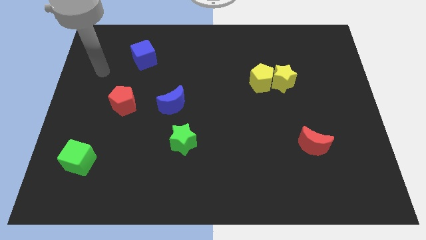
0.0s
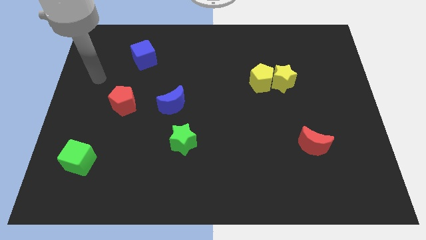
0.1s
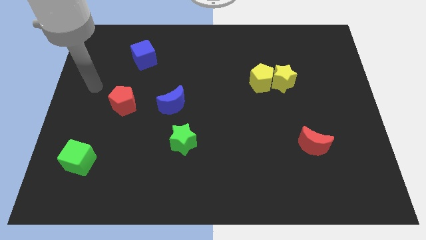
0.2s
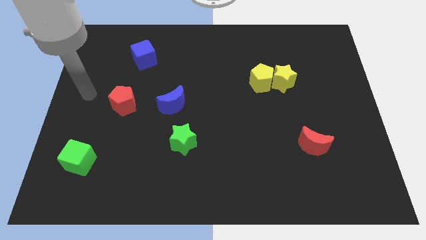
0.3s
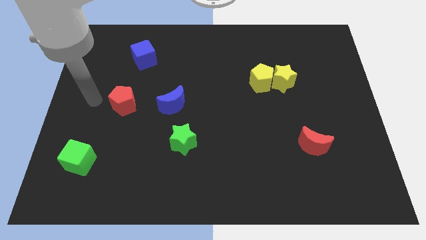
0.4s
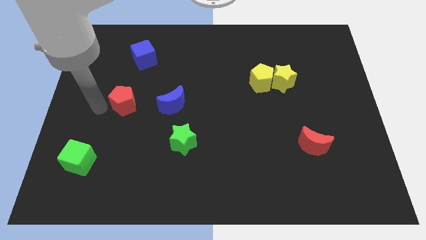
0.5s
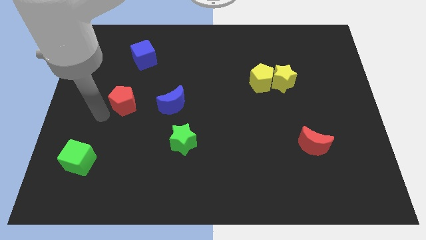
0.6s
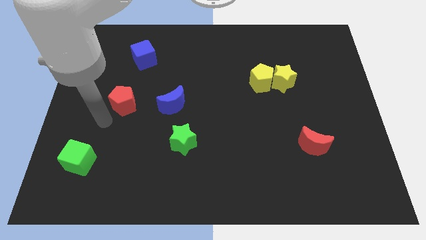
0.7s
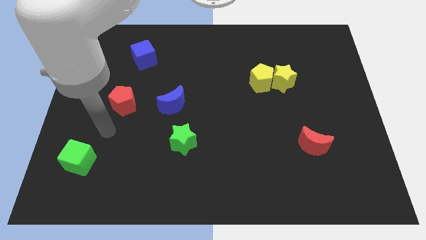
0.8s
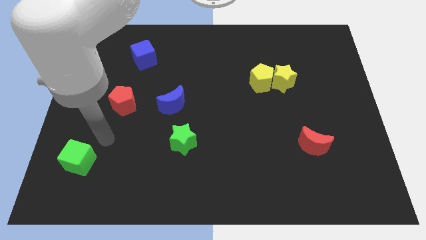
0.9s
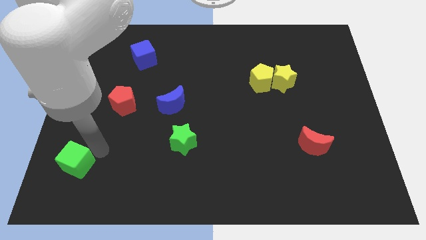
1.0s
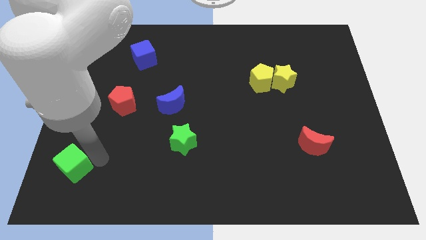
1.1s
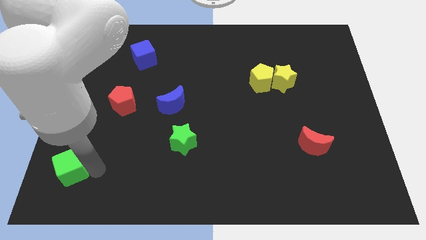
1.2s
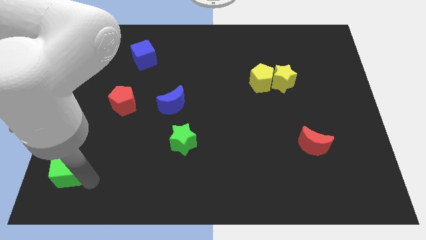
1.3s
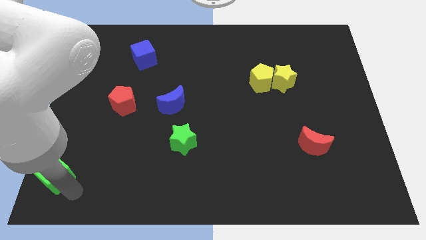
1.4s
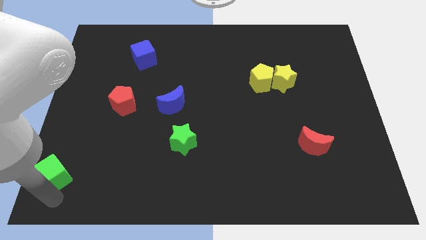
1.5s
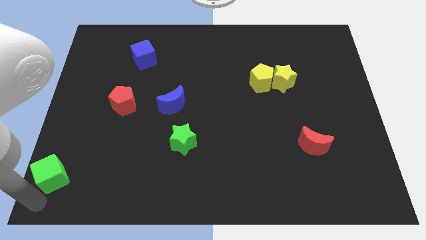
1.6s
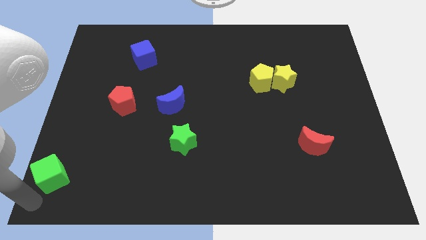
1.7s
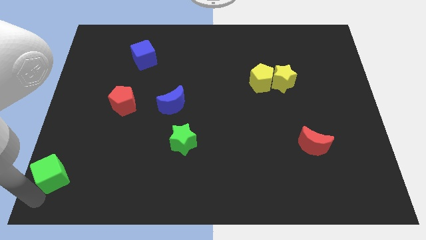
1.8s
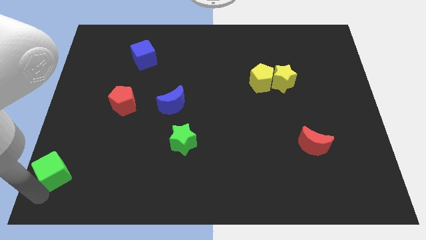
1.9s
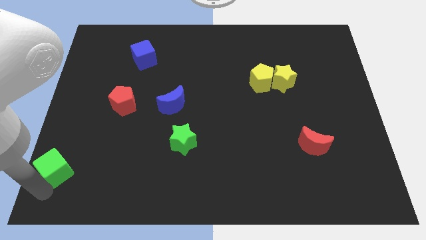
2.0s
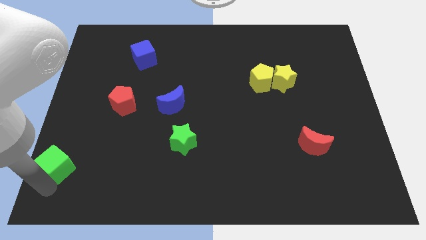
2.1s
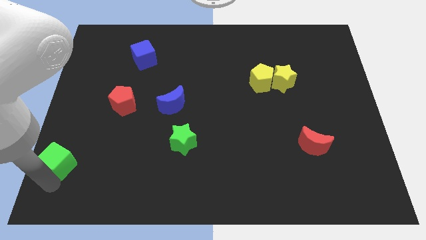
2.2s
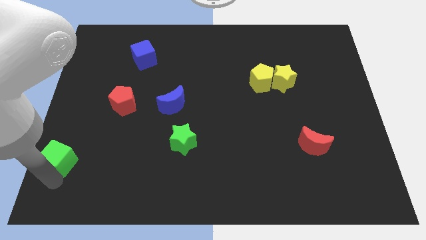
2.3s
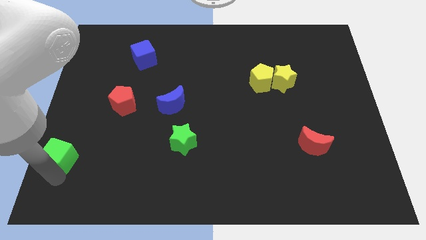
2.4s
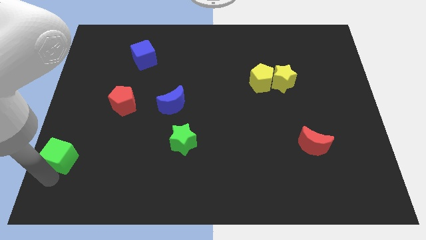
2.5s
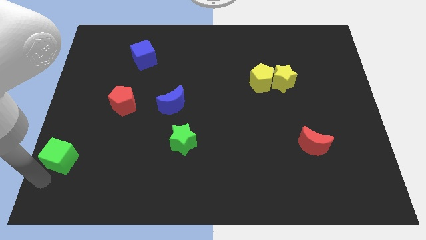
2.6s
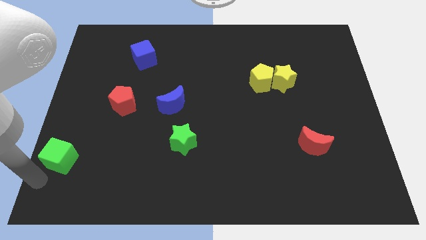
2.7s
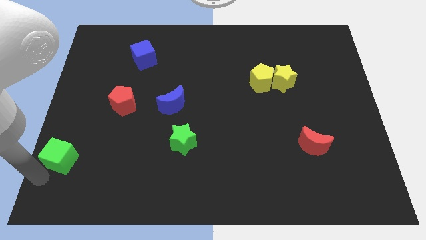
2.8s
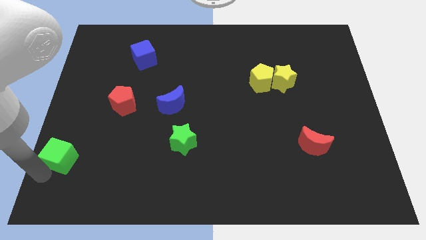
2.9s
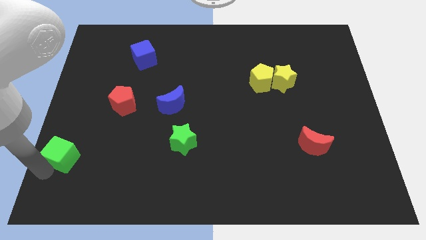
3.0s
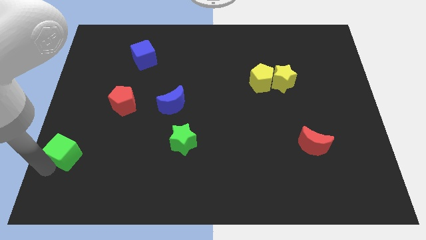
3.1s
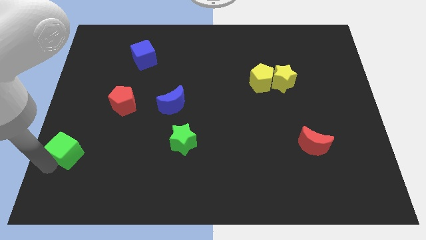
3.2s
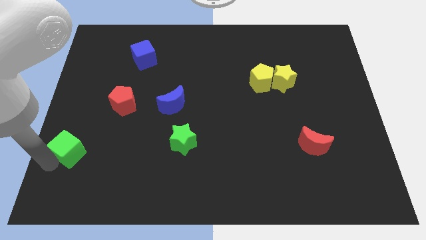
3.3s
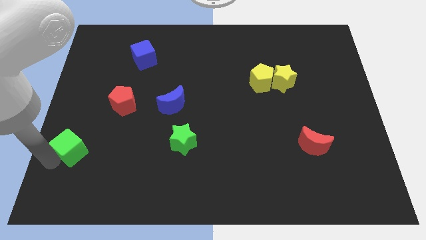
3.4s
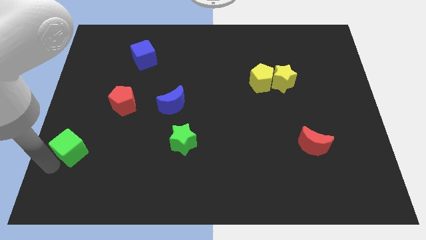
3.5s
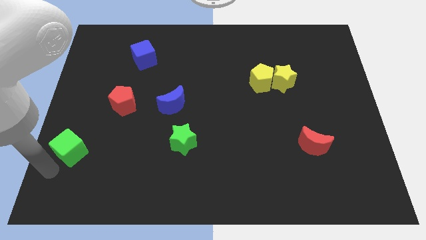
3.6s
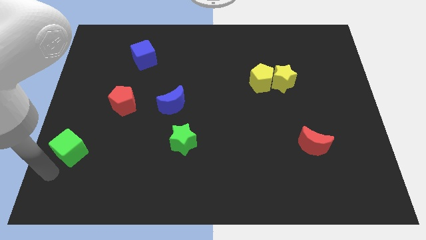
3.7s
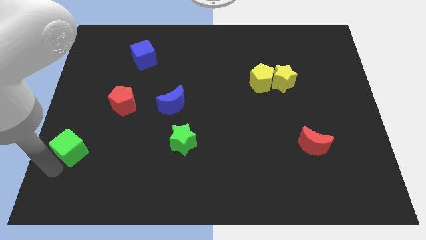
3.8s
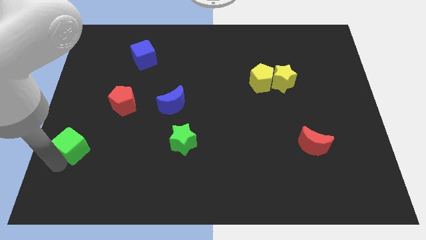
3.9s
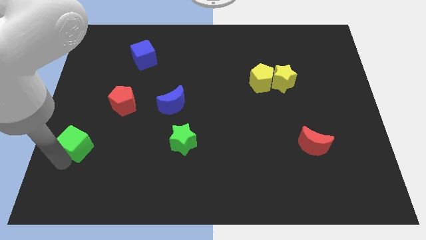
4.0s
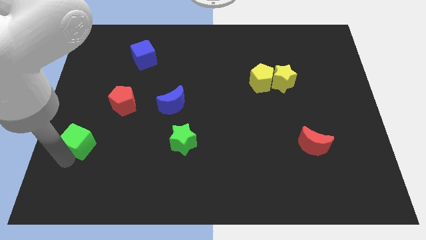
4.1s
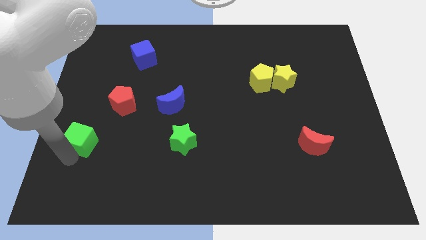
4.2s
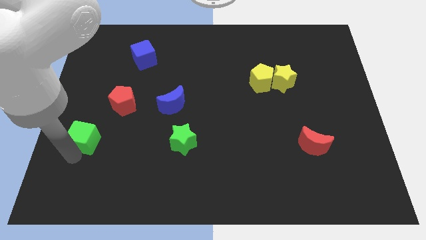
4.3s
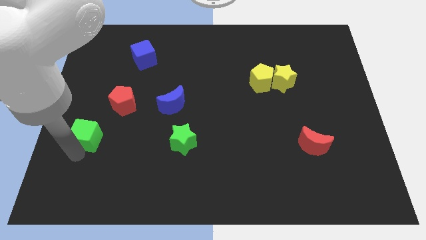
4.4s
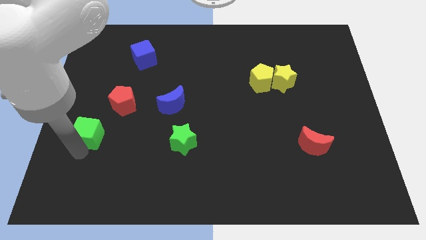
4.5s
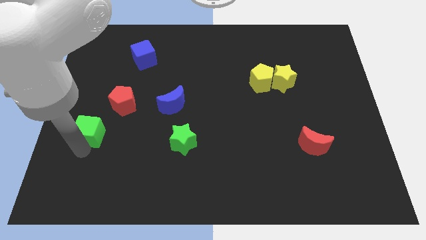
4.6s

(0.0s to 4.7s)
move the green cube upwards slightly

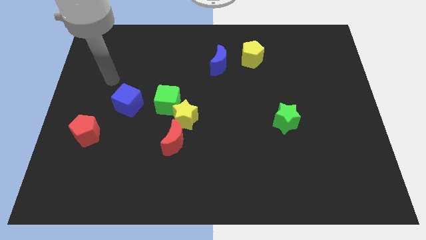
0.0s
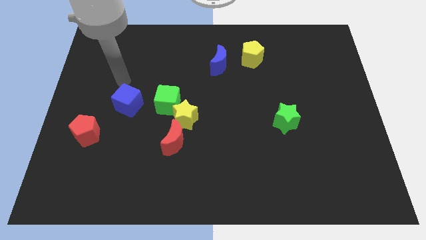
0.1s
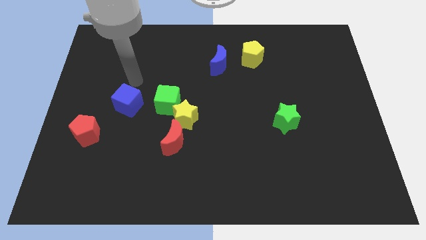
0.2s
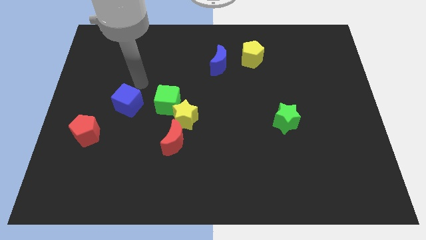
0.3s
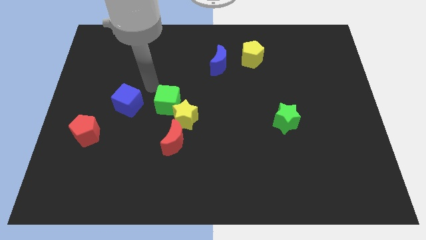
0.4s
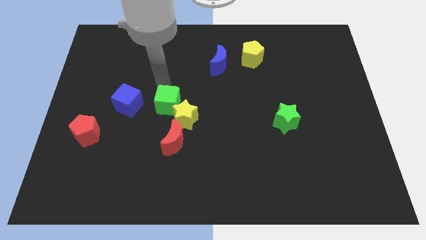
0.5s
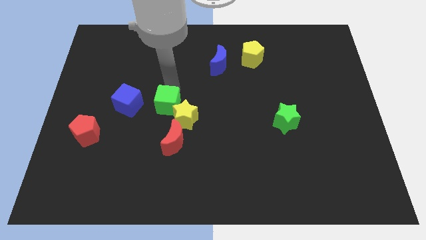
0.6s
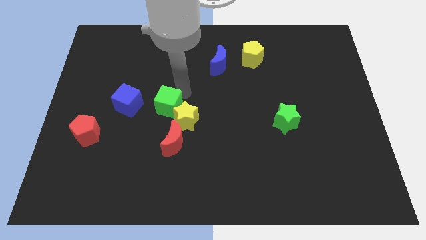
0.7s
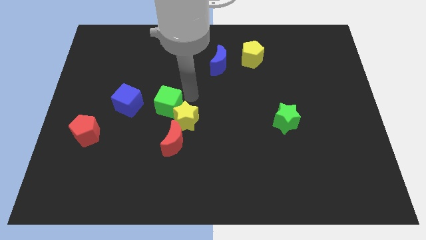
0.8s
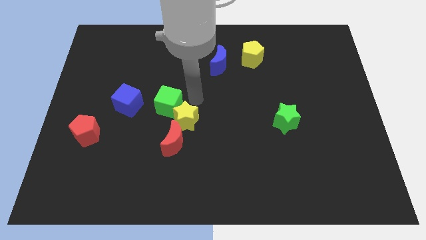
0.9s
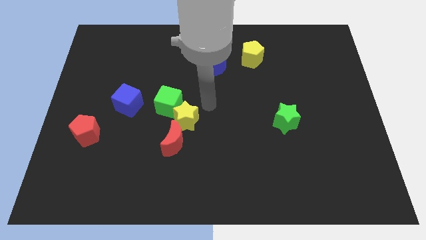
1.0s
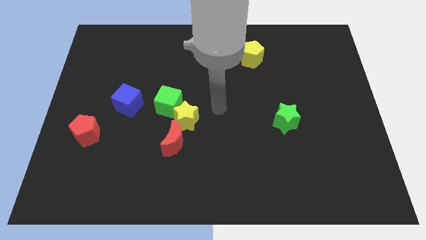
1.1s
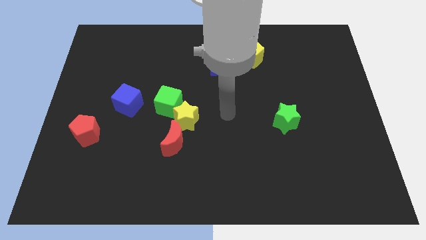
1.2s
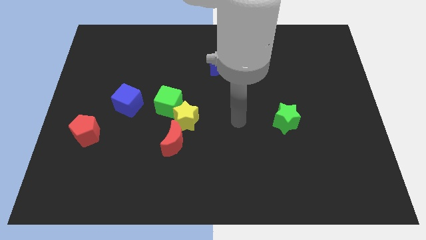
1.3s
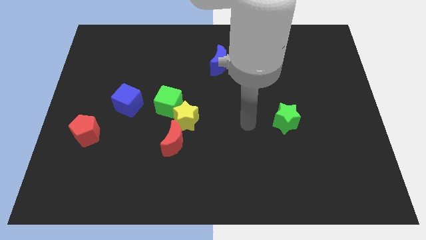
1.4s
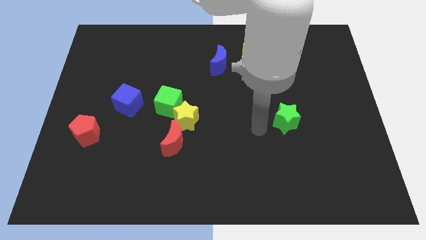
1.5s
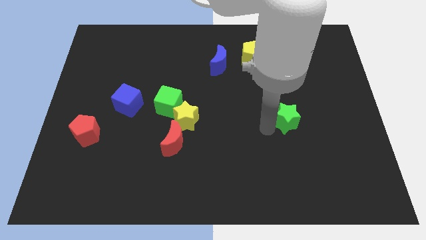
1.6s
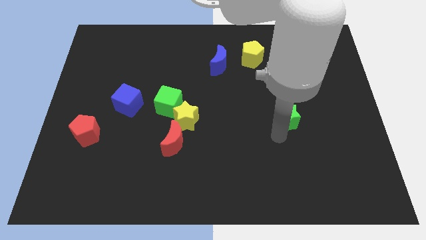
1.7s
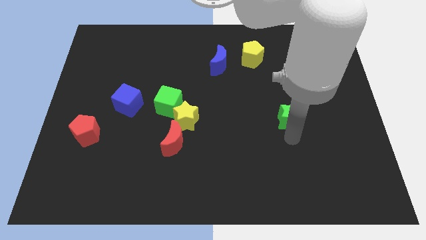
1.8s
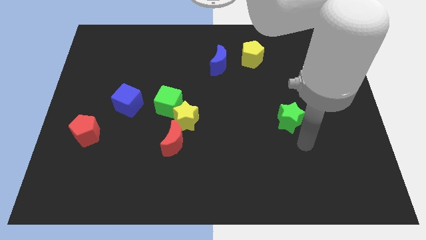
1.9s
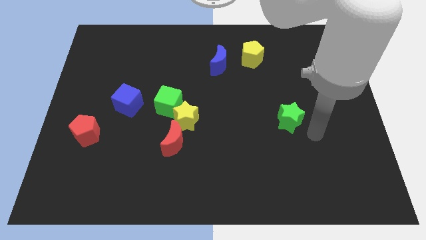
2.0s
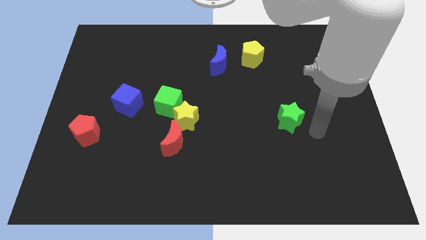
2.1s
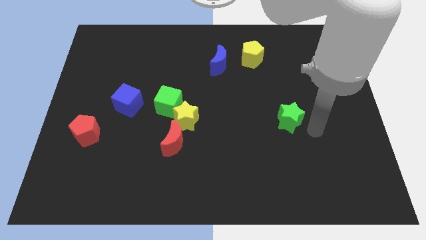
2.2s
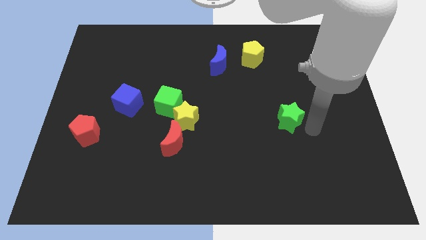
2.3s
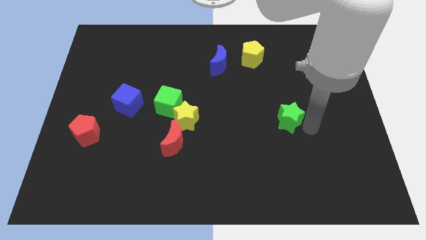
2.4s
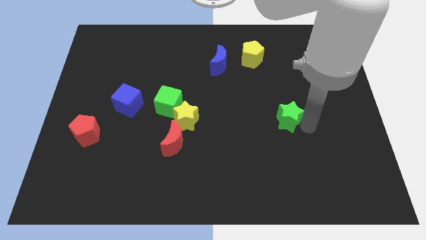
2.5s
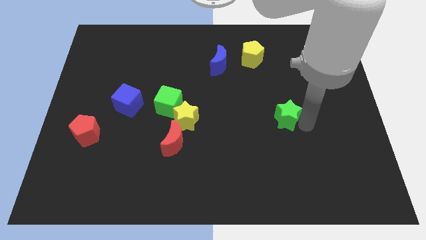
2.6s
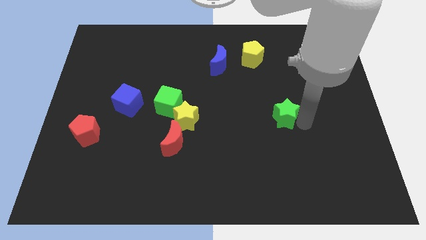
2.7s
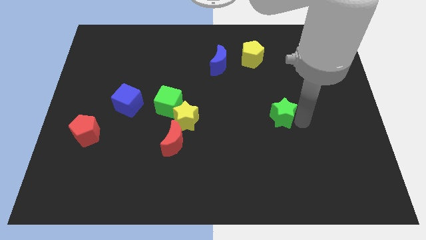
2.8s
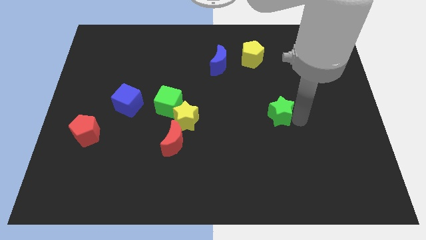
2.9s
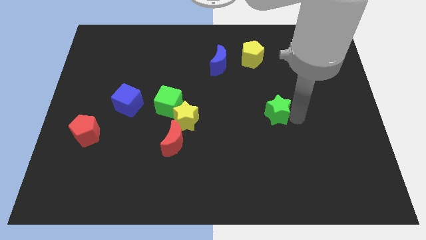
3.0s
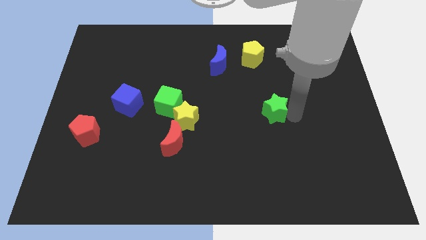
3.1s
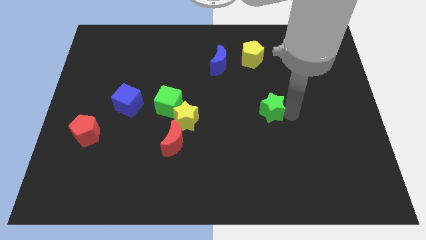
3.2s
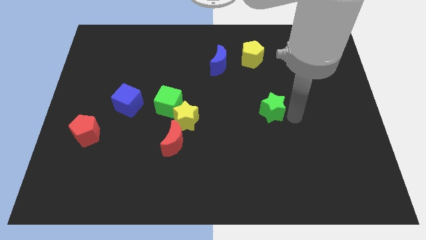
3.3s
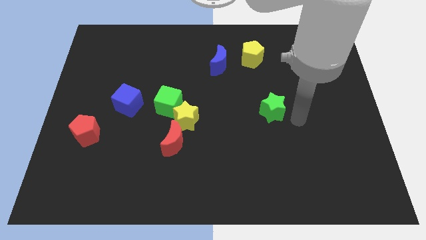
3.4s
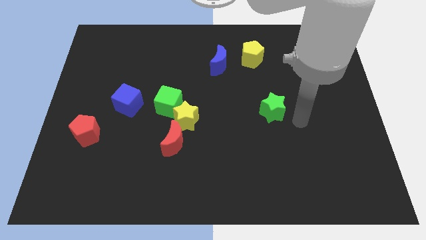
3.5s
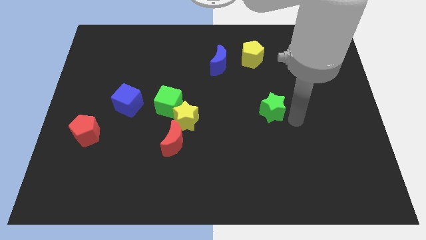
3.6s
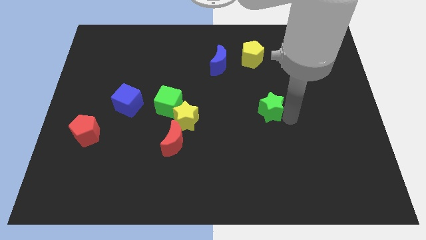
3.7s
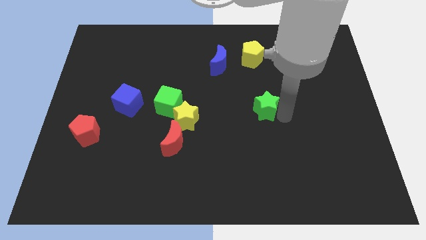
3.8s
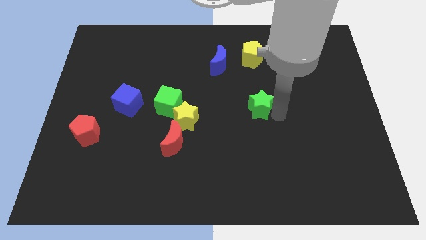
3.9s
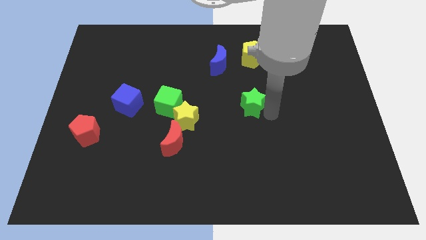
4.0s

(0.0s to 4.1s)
slide the green star a little bit diagonally up and to the left
